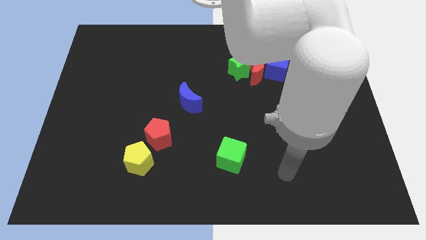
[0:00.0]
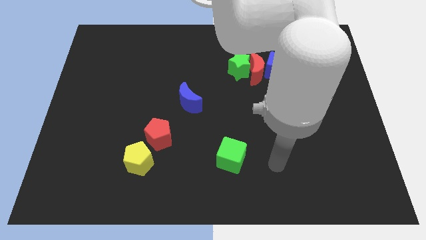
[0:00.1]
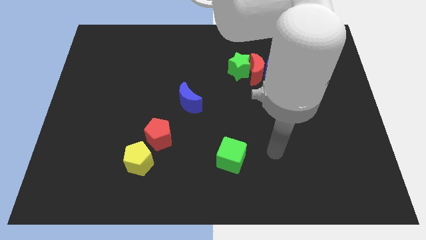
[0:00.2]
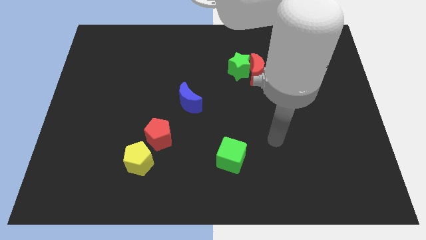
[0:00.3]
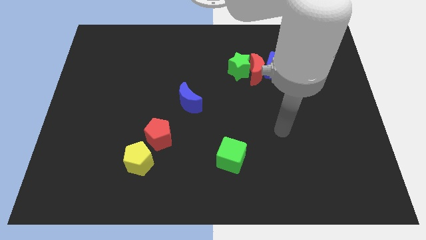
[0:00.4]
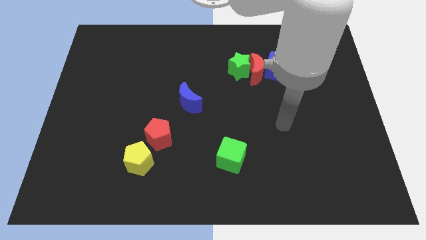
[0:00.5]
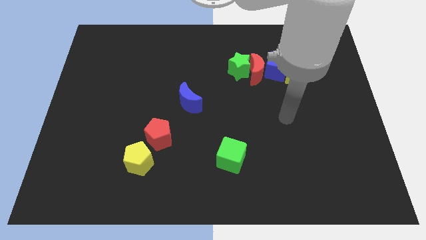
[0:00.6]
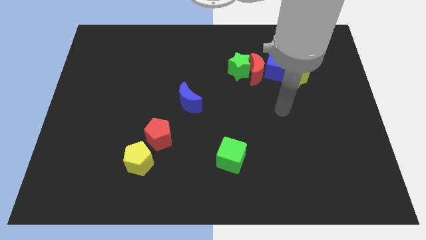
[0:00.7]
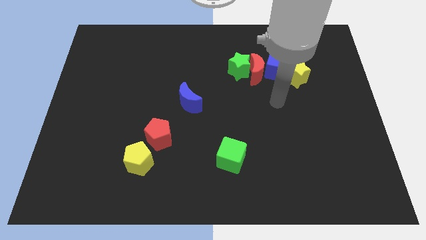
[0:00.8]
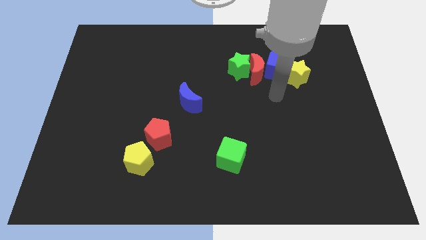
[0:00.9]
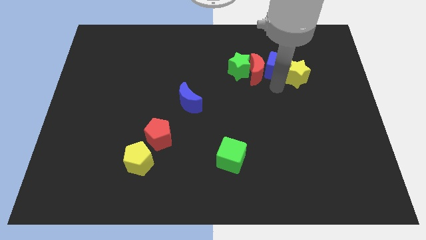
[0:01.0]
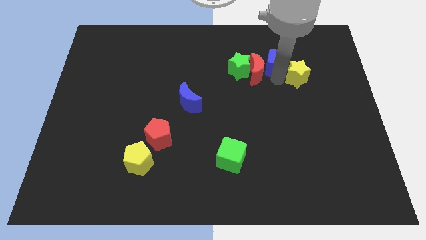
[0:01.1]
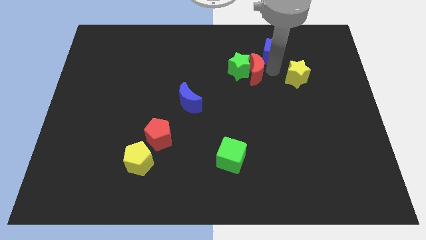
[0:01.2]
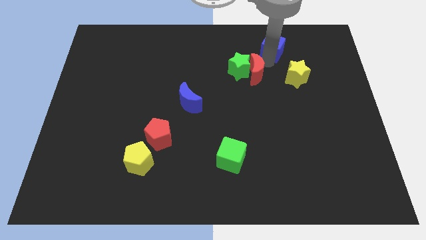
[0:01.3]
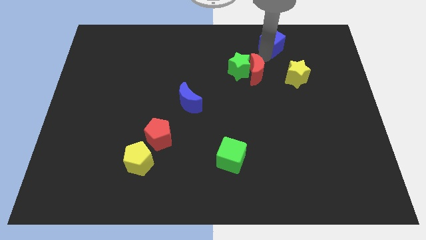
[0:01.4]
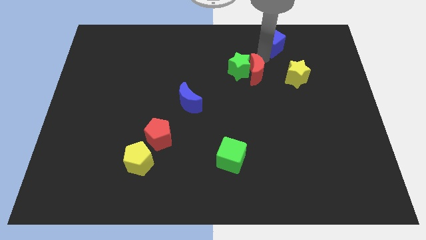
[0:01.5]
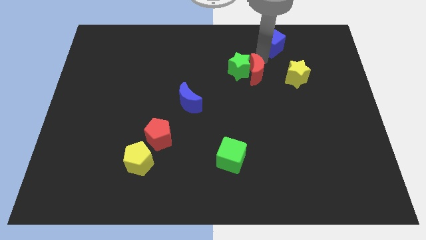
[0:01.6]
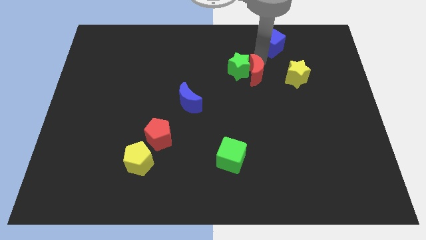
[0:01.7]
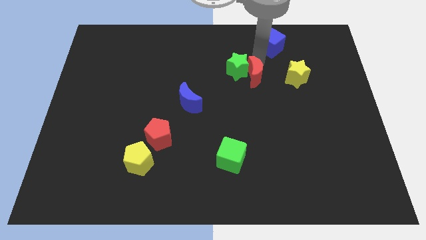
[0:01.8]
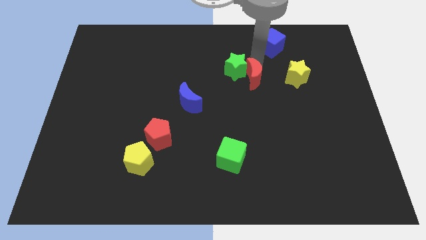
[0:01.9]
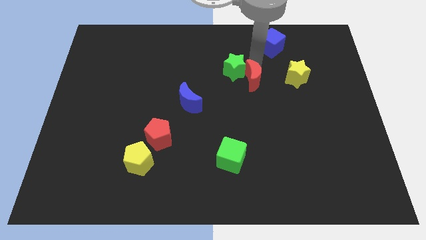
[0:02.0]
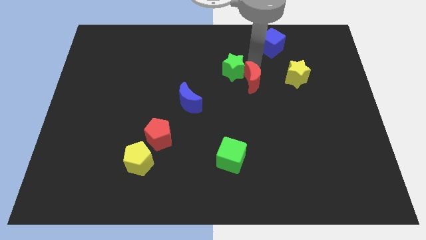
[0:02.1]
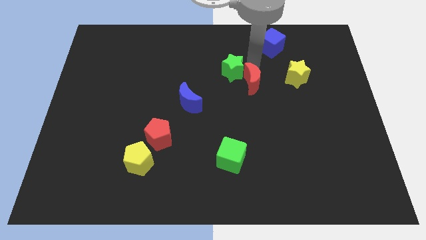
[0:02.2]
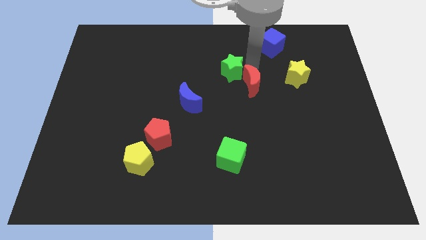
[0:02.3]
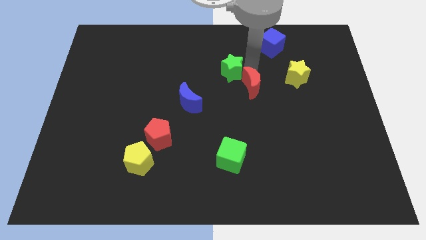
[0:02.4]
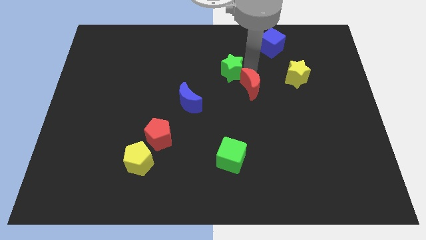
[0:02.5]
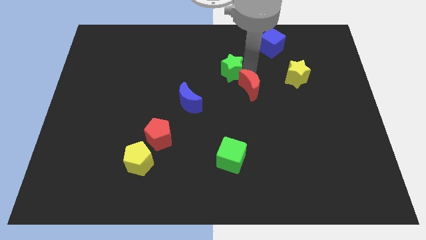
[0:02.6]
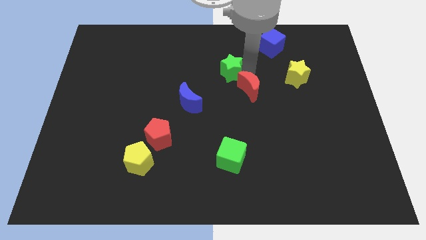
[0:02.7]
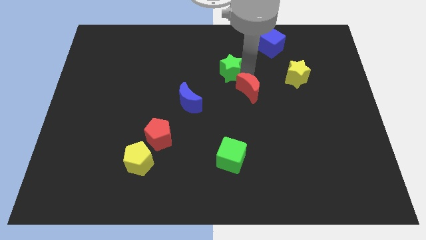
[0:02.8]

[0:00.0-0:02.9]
separate the red moon from the green star, blue cube, and yellow star

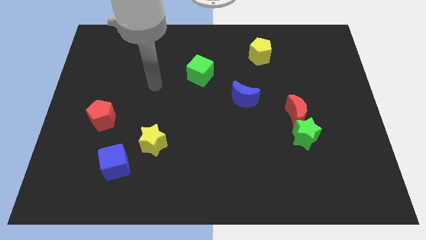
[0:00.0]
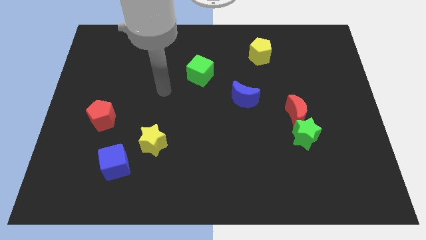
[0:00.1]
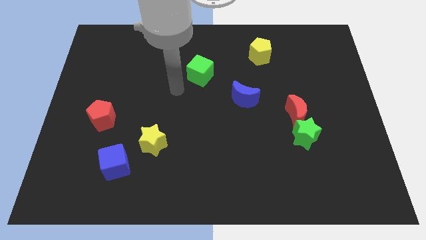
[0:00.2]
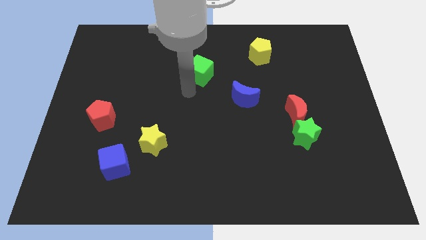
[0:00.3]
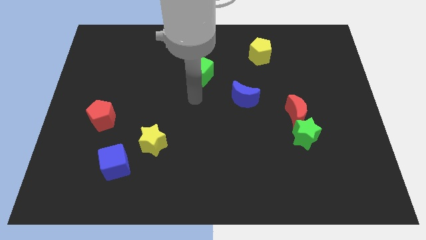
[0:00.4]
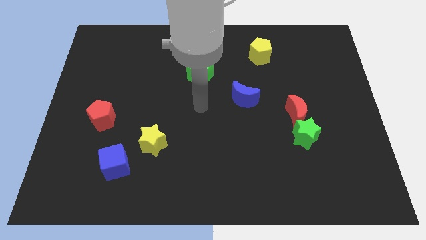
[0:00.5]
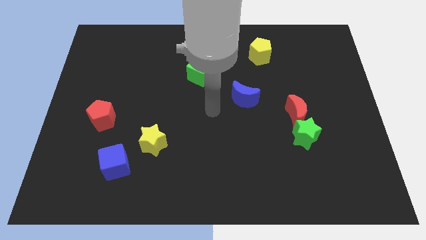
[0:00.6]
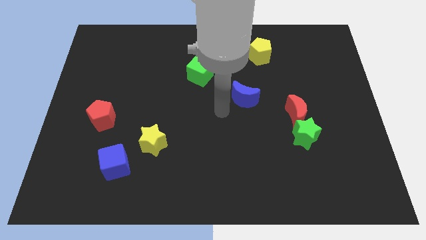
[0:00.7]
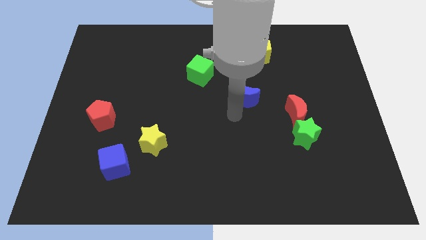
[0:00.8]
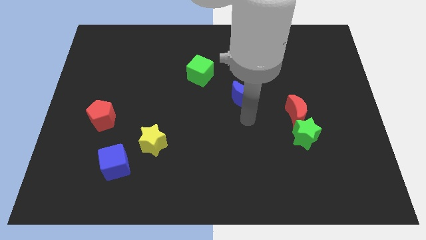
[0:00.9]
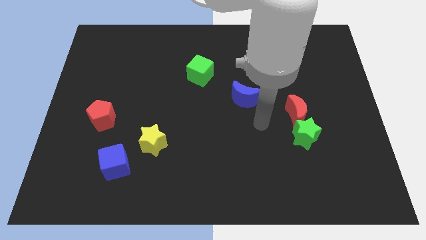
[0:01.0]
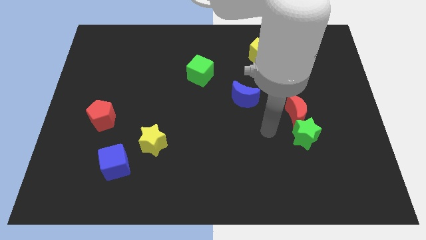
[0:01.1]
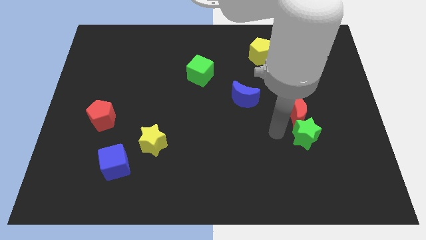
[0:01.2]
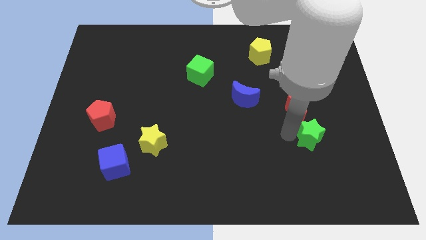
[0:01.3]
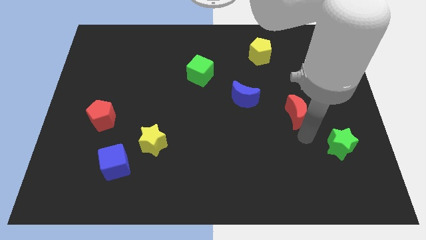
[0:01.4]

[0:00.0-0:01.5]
move the red moon away from the green star

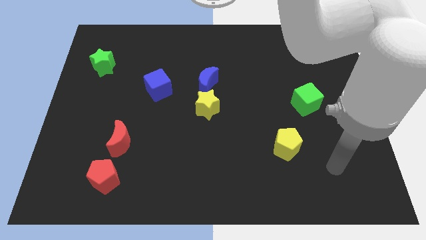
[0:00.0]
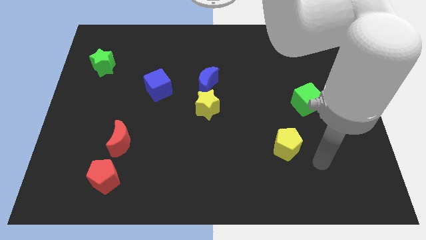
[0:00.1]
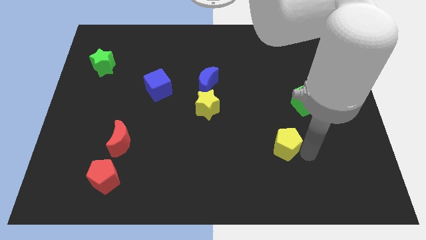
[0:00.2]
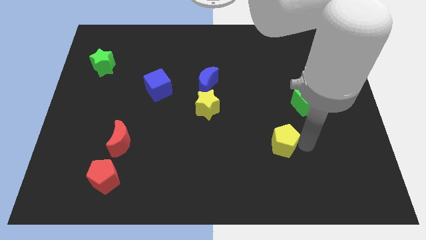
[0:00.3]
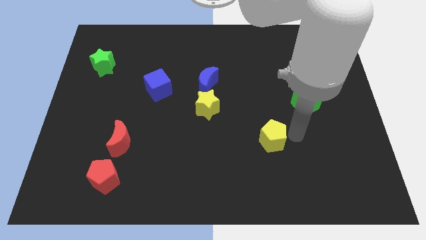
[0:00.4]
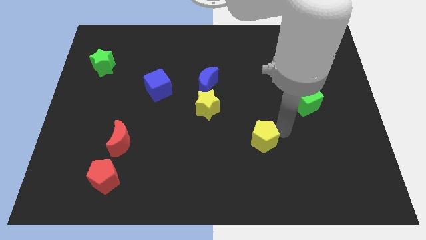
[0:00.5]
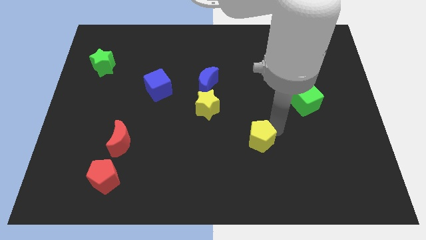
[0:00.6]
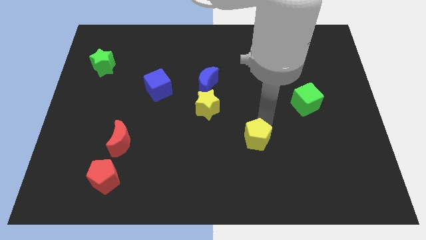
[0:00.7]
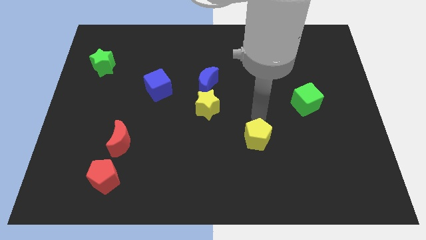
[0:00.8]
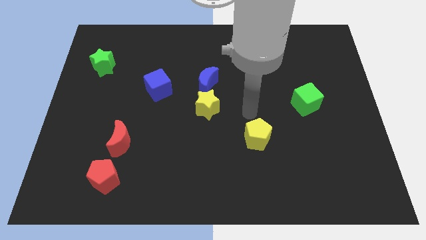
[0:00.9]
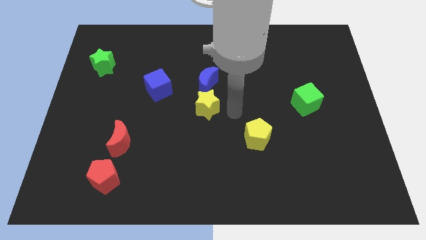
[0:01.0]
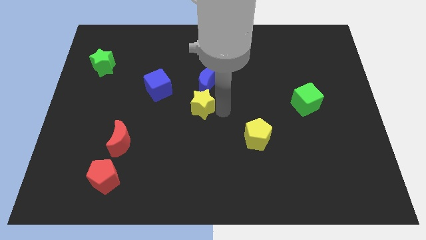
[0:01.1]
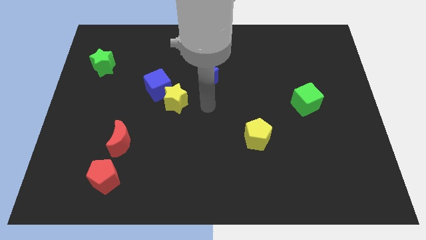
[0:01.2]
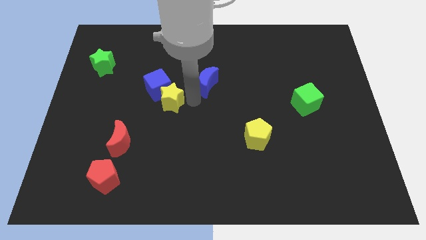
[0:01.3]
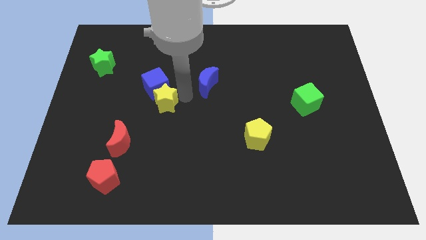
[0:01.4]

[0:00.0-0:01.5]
move the blue moon away from the yellow star

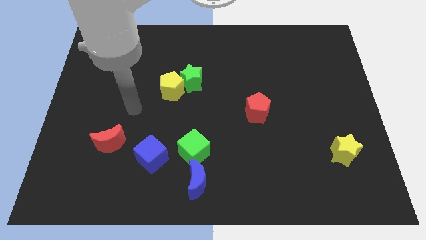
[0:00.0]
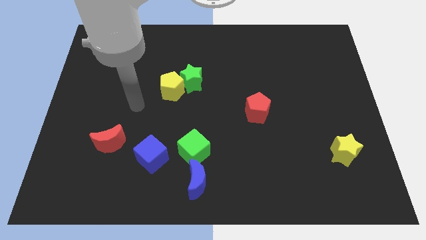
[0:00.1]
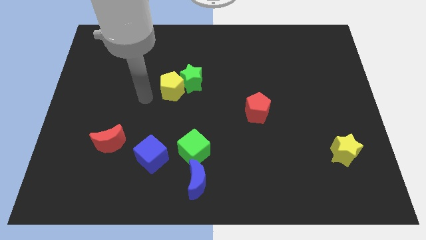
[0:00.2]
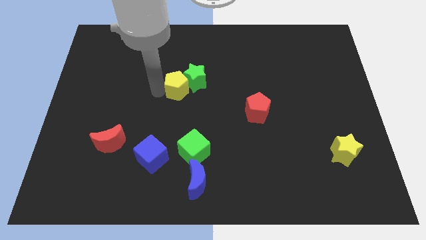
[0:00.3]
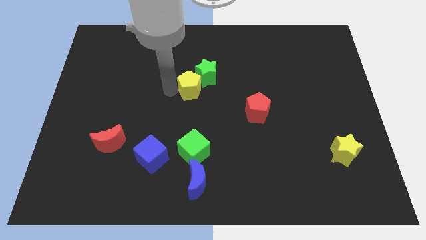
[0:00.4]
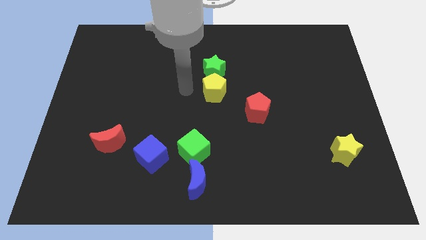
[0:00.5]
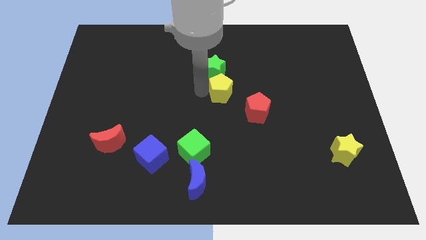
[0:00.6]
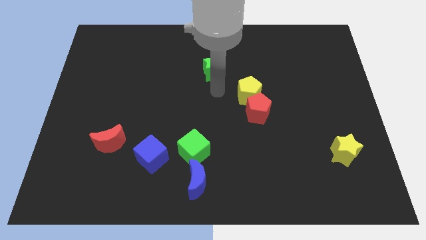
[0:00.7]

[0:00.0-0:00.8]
move the green star away from the yellow pentagon

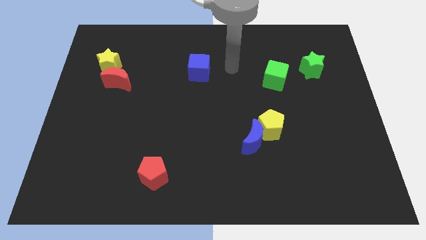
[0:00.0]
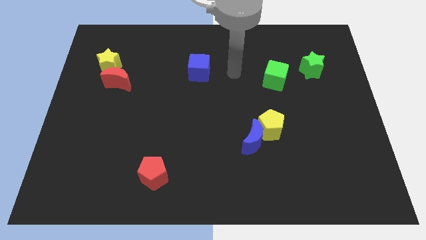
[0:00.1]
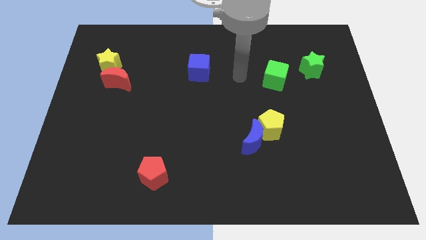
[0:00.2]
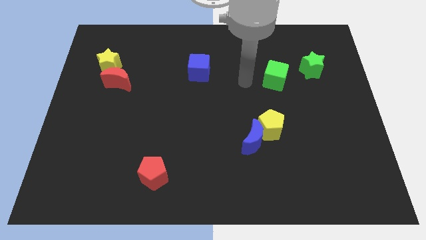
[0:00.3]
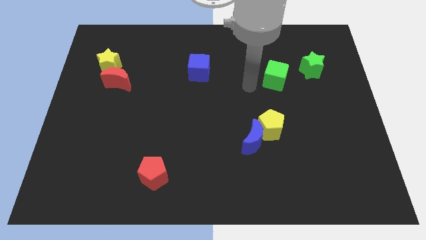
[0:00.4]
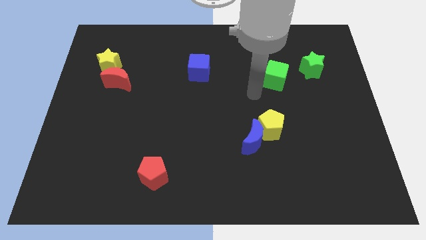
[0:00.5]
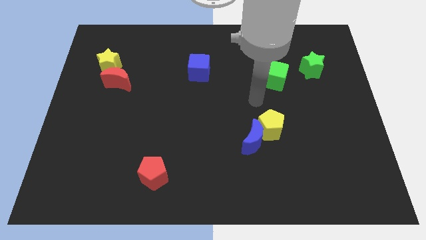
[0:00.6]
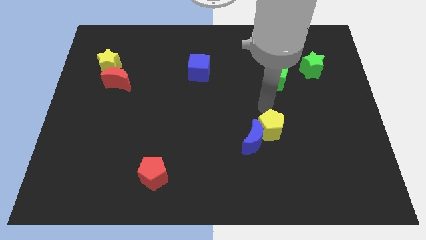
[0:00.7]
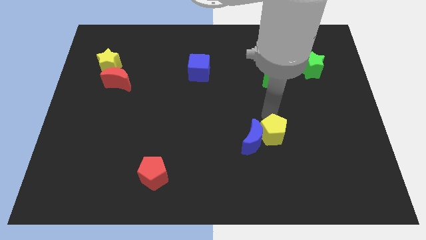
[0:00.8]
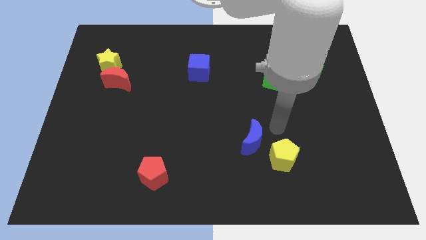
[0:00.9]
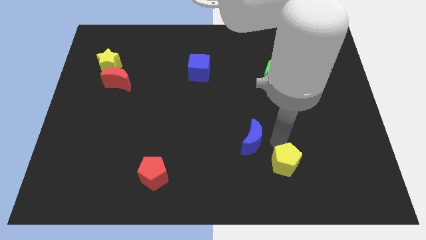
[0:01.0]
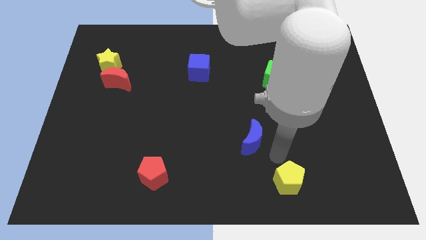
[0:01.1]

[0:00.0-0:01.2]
move the blue moon away from the yellow pentagon

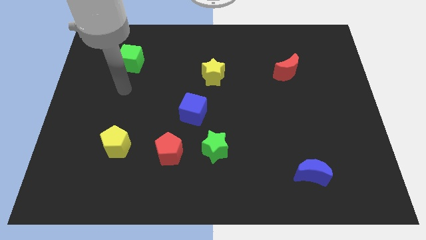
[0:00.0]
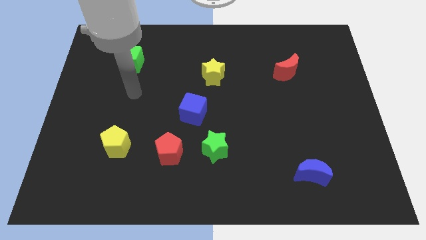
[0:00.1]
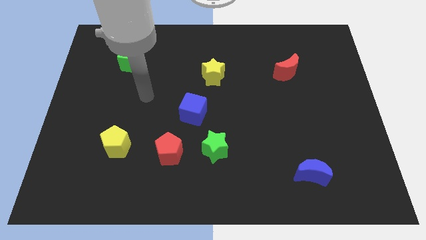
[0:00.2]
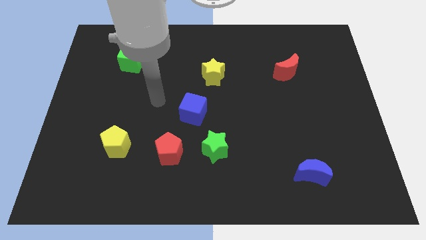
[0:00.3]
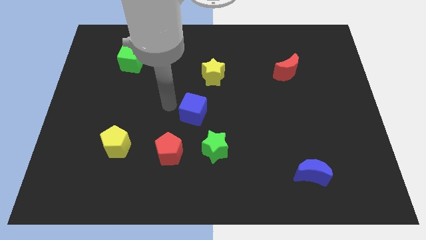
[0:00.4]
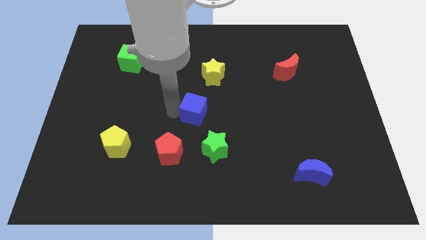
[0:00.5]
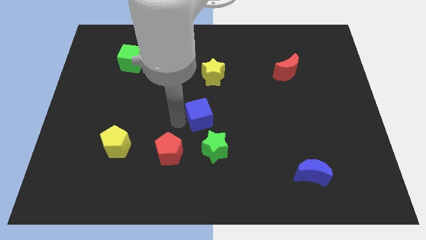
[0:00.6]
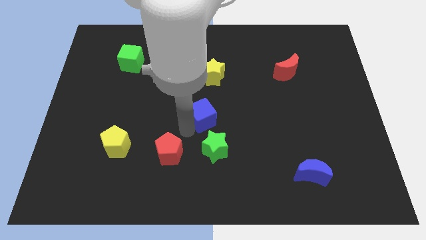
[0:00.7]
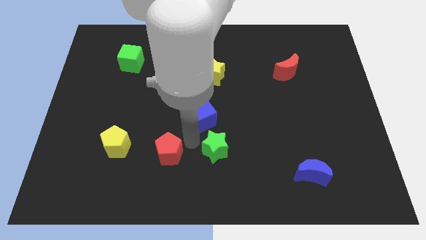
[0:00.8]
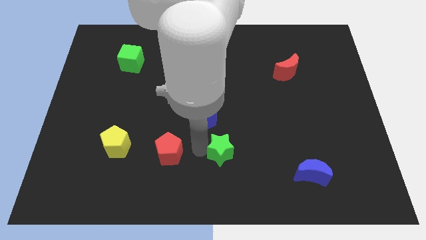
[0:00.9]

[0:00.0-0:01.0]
separate the red pentagon from the green star

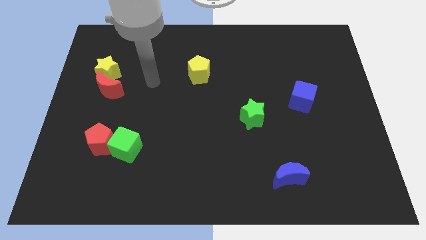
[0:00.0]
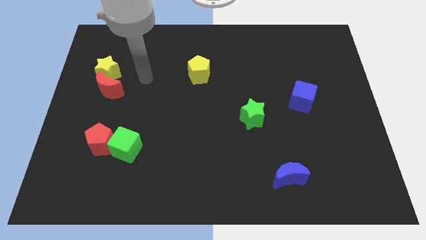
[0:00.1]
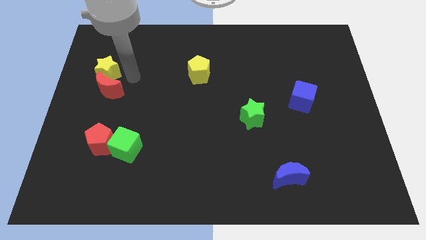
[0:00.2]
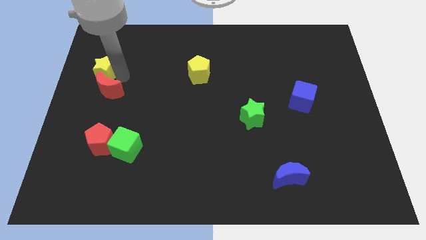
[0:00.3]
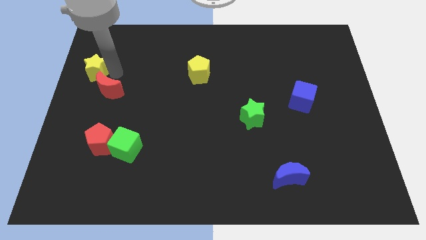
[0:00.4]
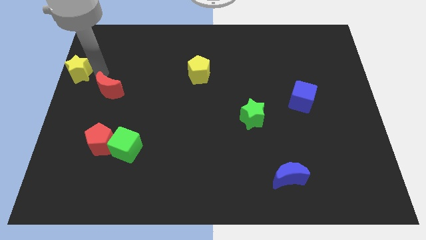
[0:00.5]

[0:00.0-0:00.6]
pull the red moon apart from the yellow star
